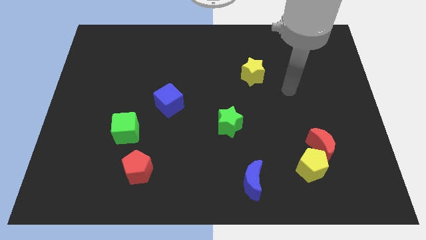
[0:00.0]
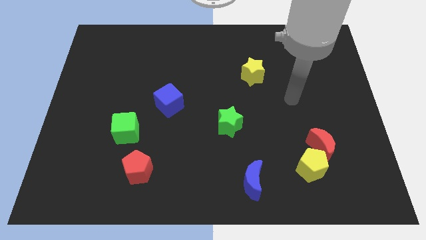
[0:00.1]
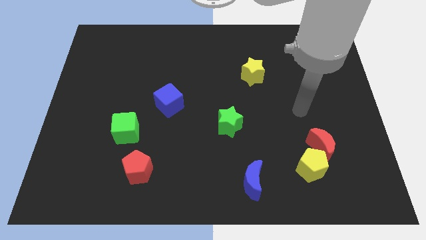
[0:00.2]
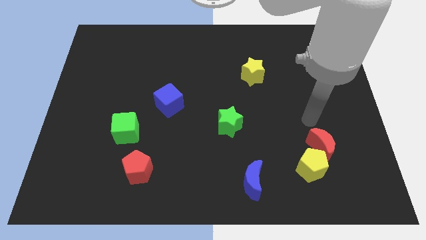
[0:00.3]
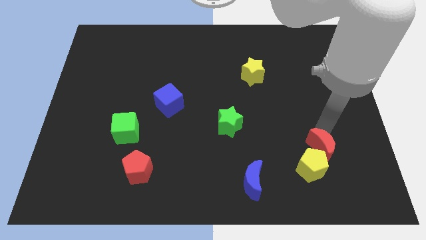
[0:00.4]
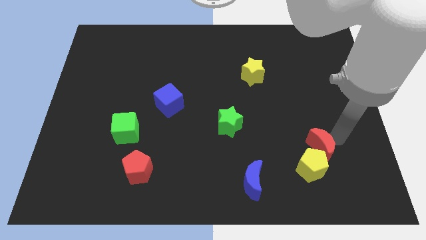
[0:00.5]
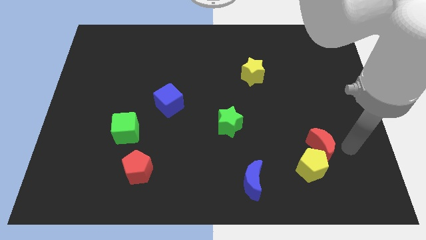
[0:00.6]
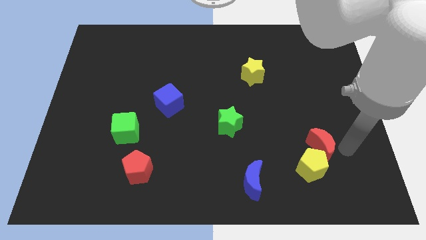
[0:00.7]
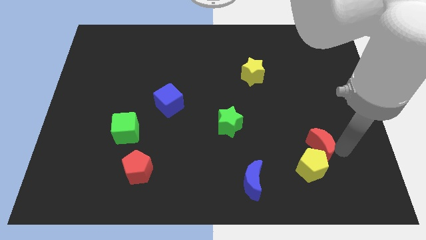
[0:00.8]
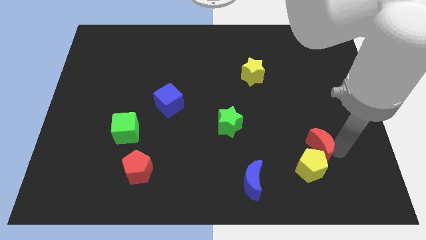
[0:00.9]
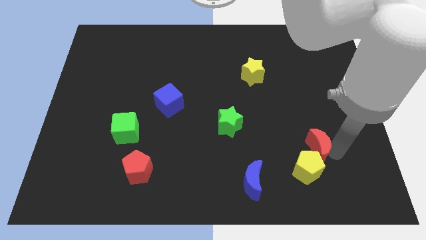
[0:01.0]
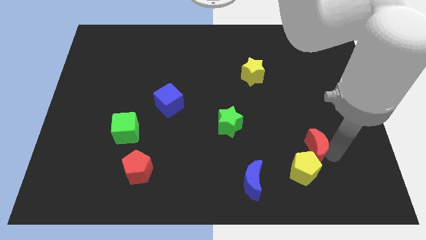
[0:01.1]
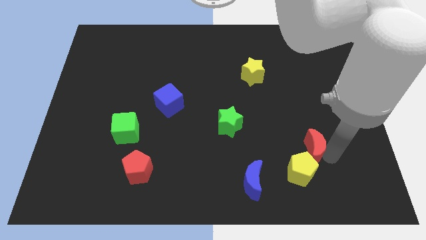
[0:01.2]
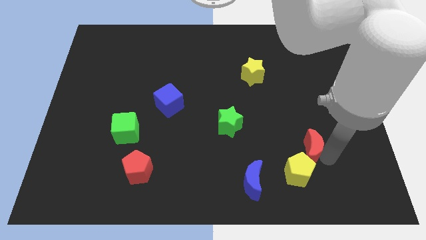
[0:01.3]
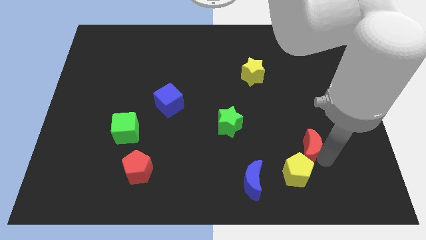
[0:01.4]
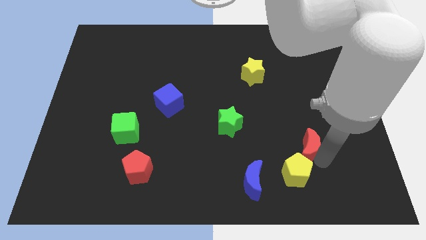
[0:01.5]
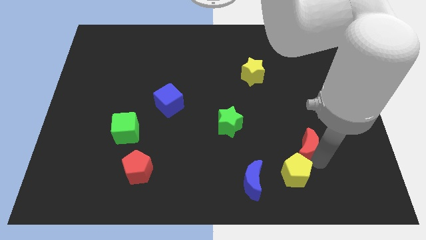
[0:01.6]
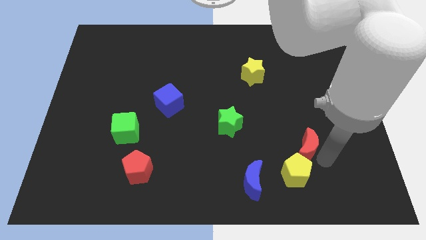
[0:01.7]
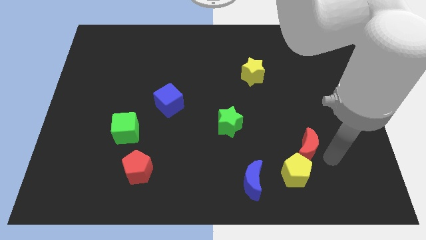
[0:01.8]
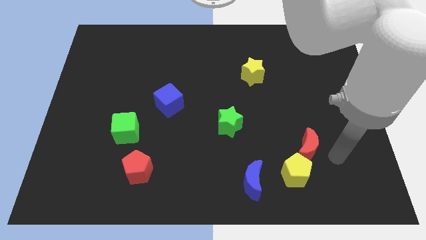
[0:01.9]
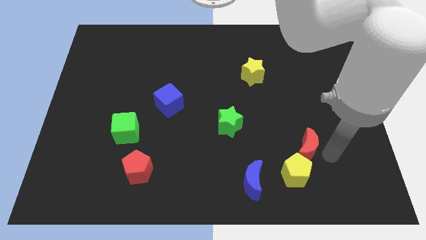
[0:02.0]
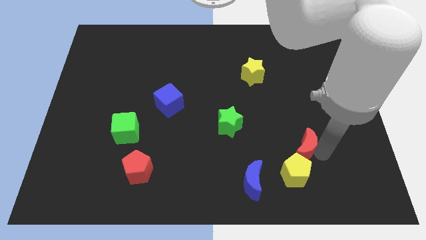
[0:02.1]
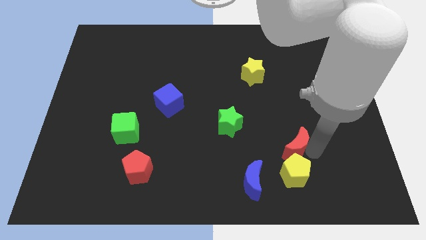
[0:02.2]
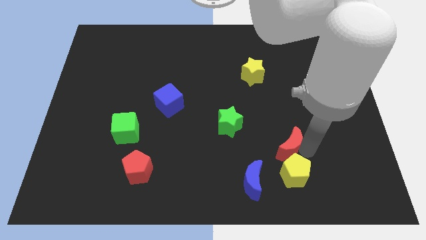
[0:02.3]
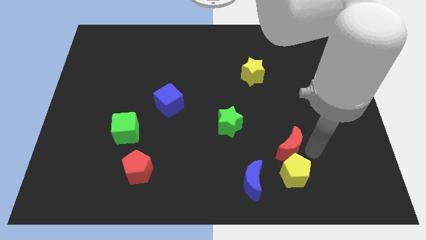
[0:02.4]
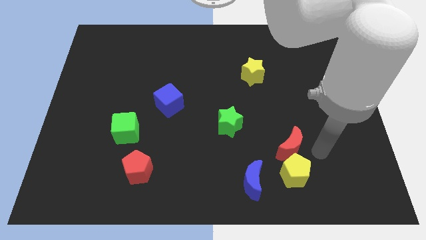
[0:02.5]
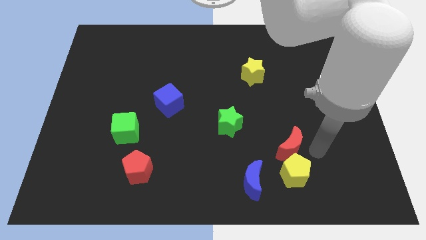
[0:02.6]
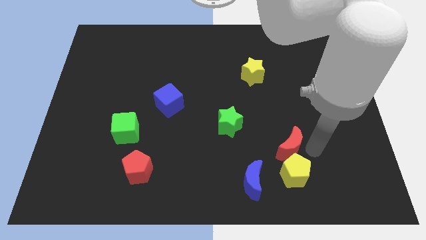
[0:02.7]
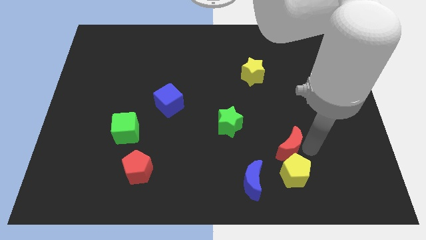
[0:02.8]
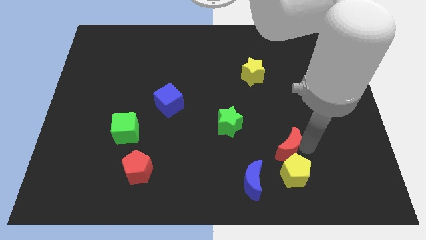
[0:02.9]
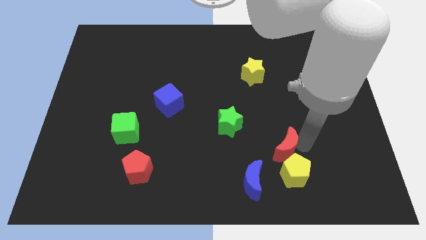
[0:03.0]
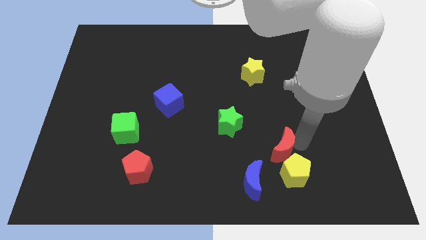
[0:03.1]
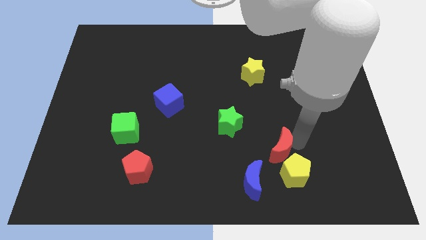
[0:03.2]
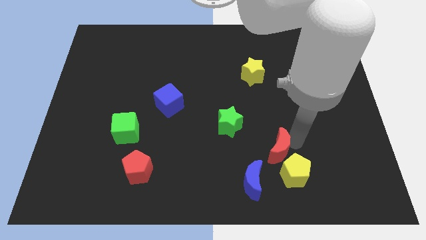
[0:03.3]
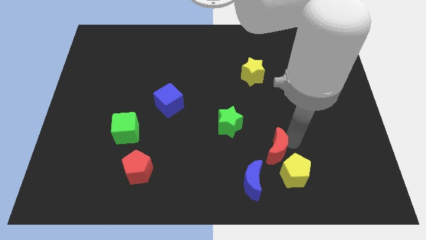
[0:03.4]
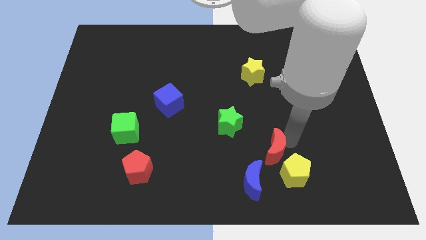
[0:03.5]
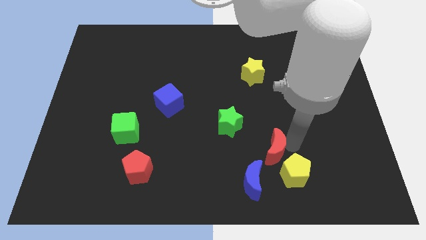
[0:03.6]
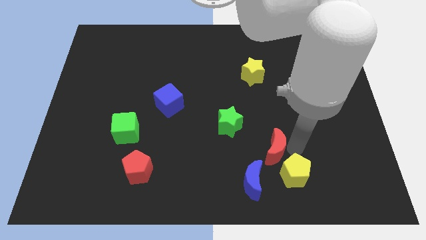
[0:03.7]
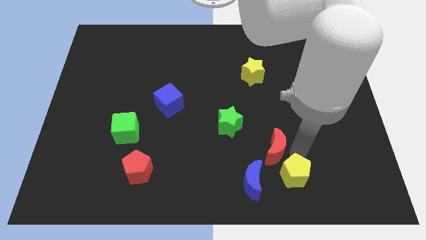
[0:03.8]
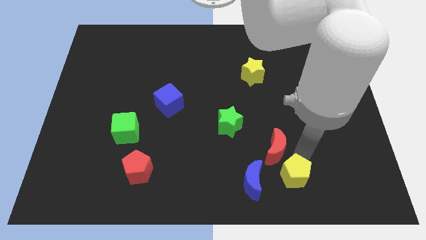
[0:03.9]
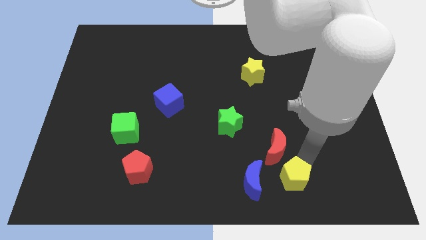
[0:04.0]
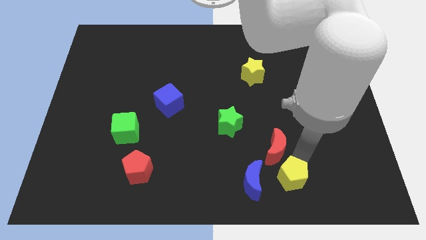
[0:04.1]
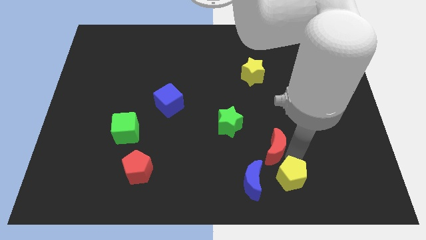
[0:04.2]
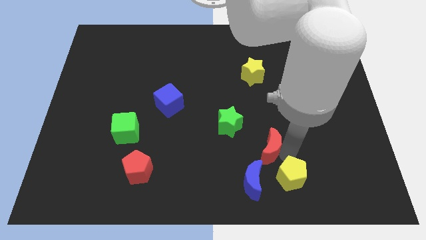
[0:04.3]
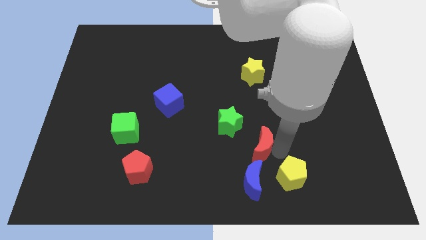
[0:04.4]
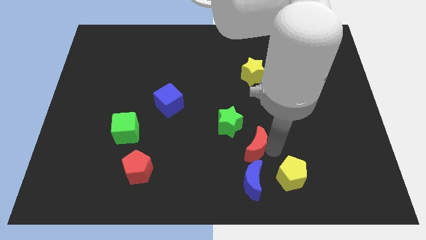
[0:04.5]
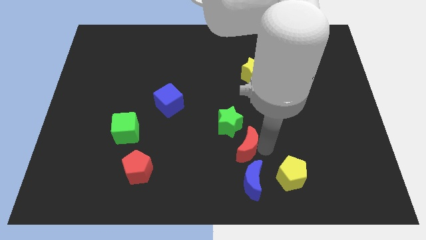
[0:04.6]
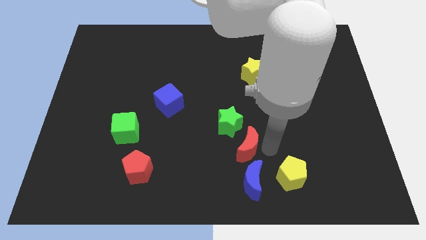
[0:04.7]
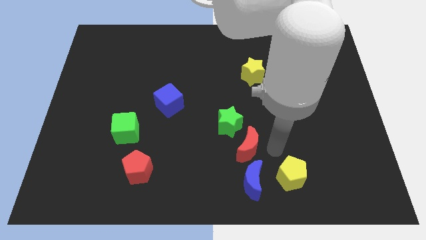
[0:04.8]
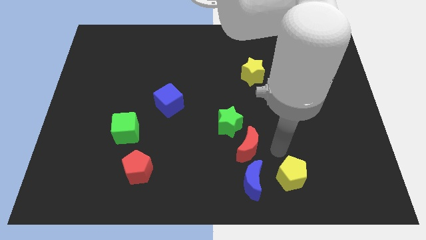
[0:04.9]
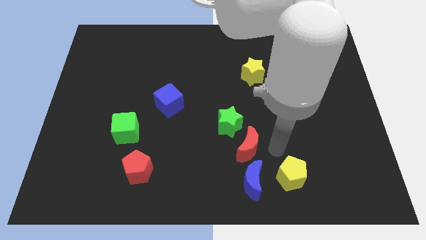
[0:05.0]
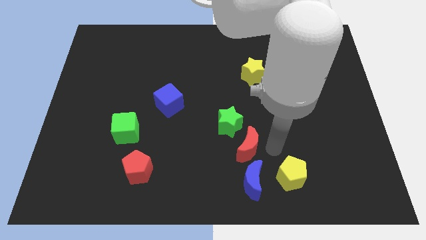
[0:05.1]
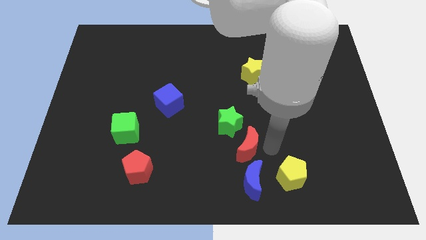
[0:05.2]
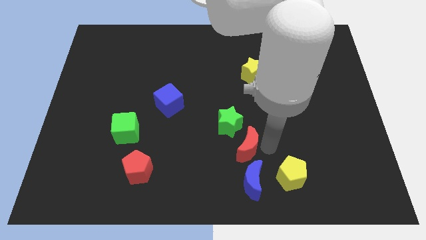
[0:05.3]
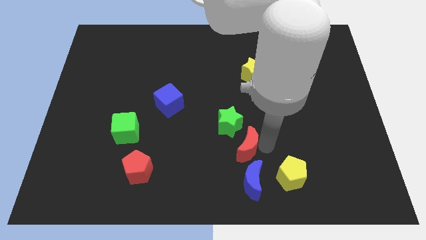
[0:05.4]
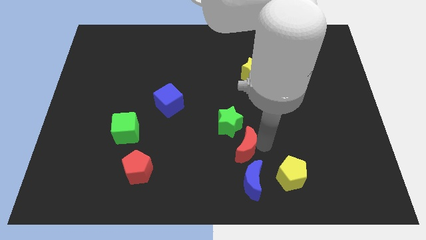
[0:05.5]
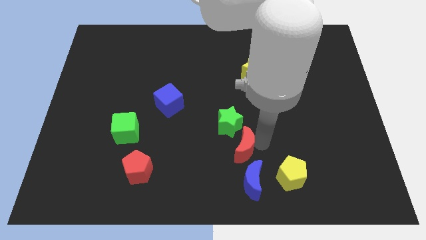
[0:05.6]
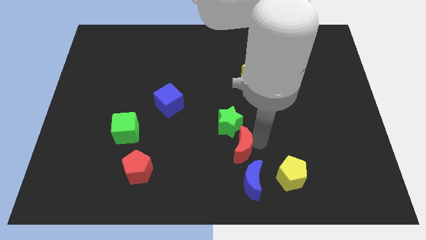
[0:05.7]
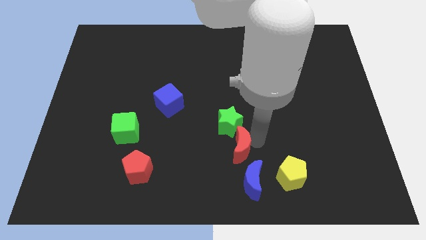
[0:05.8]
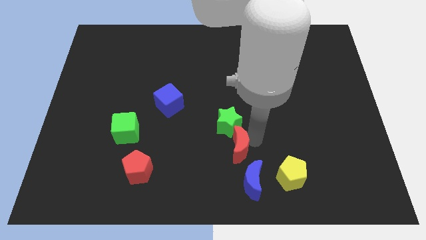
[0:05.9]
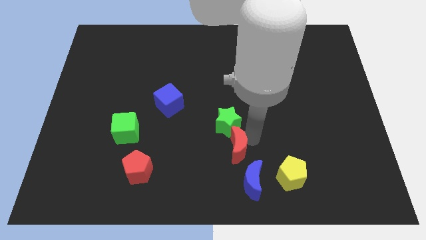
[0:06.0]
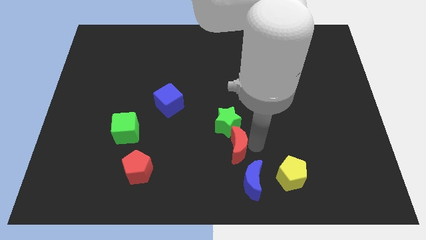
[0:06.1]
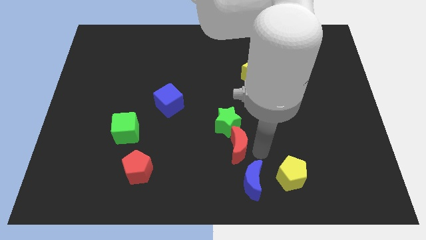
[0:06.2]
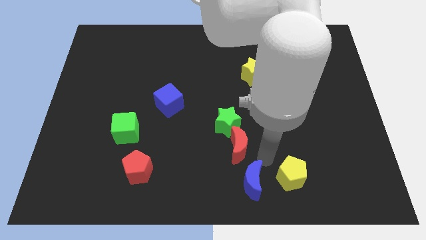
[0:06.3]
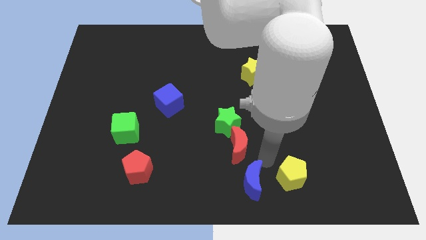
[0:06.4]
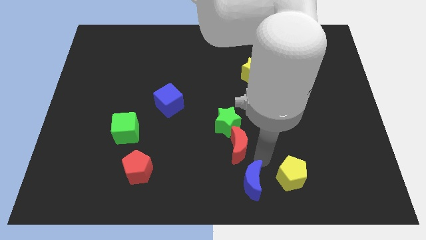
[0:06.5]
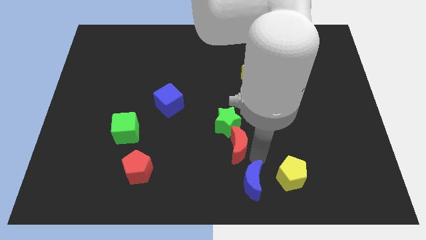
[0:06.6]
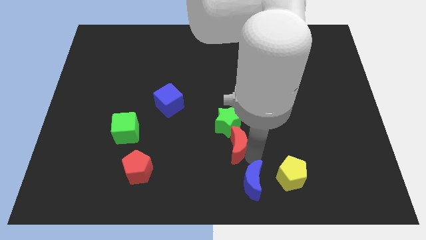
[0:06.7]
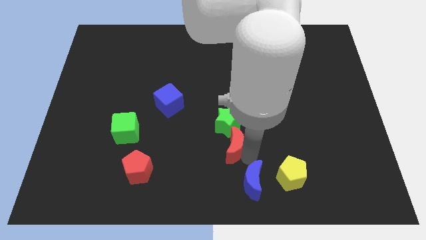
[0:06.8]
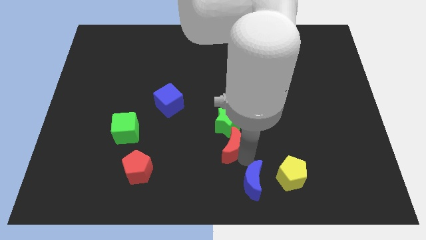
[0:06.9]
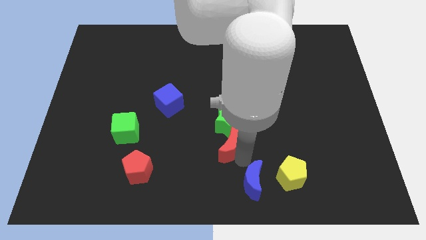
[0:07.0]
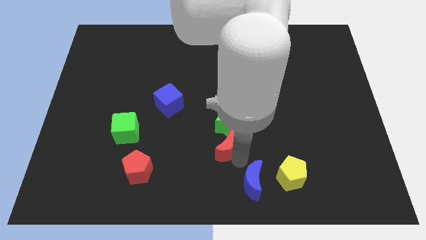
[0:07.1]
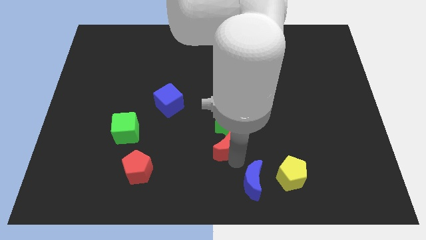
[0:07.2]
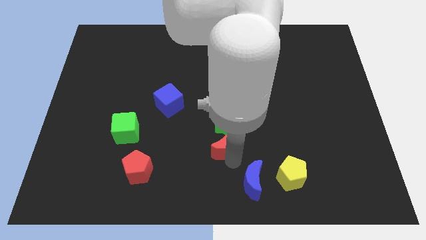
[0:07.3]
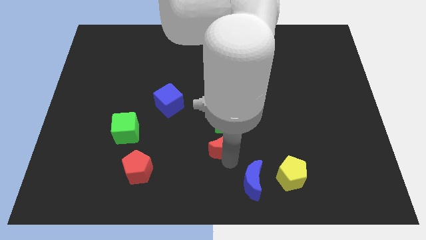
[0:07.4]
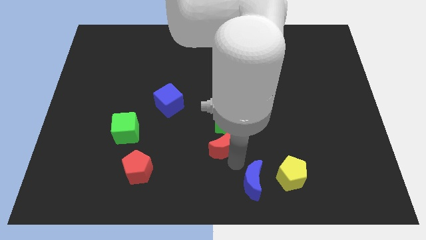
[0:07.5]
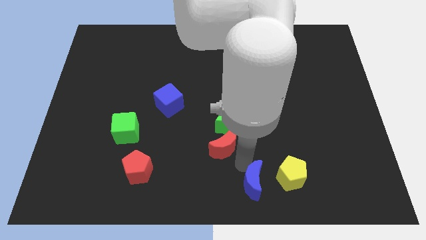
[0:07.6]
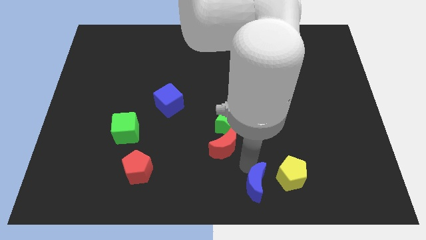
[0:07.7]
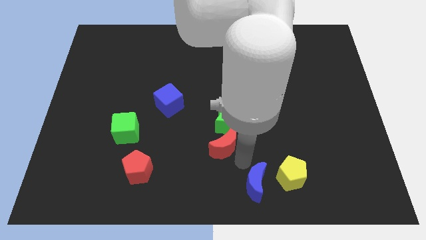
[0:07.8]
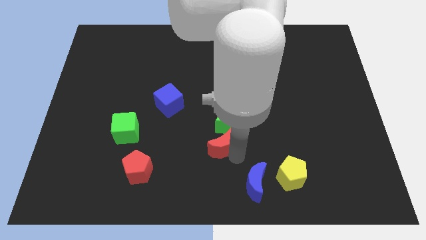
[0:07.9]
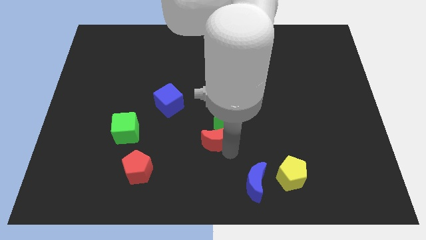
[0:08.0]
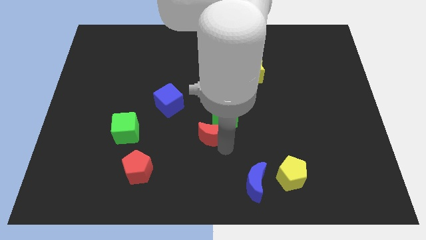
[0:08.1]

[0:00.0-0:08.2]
move the red moon to the left of the green star

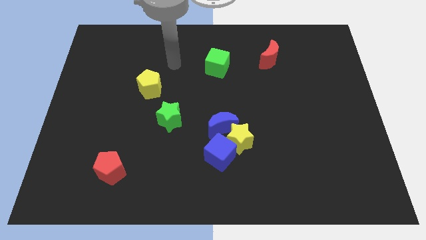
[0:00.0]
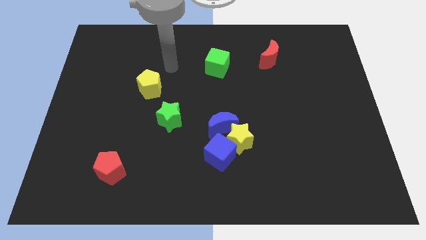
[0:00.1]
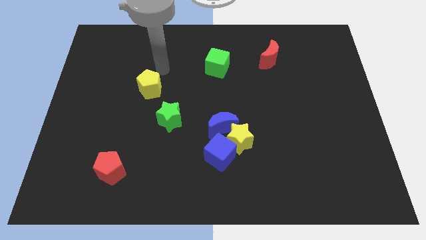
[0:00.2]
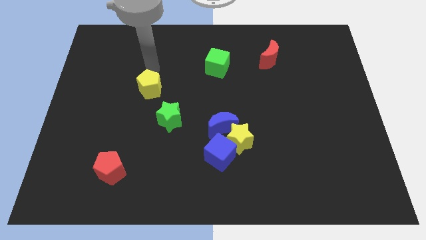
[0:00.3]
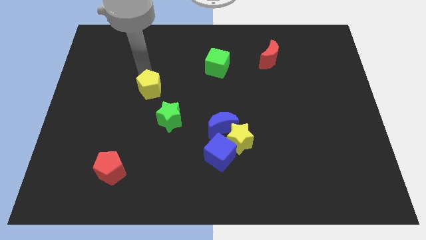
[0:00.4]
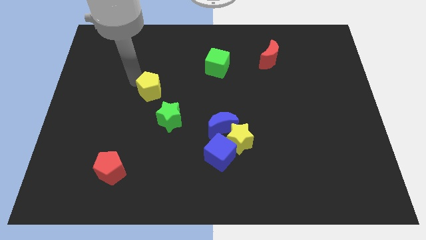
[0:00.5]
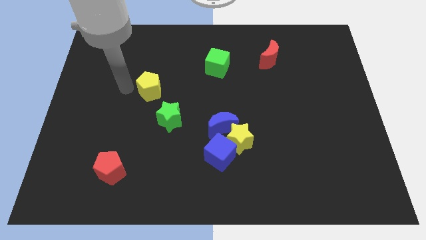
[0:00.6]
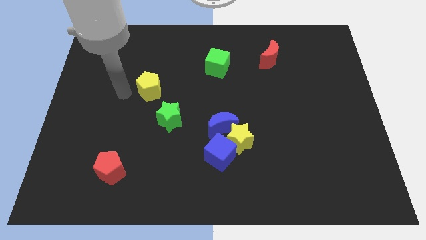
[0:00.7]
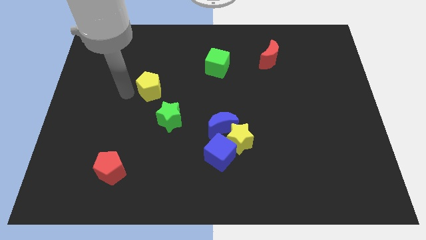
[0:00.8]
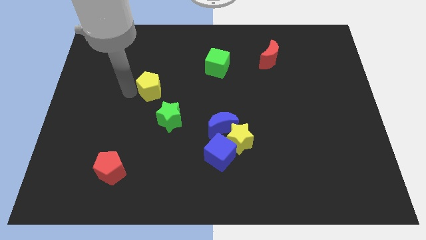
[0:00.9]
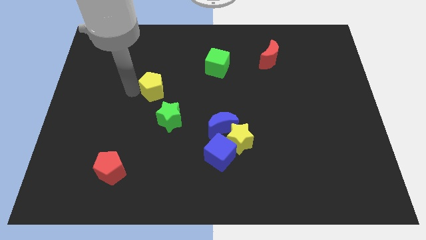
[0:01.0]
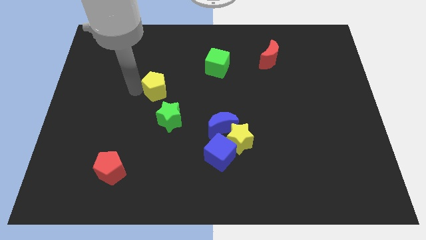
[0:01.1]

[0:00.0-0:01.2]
slide the yellow pentagon to the top of the green star
